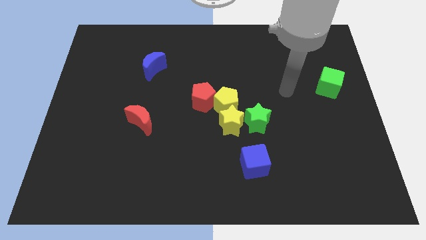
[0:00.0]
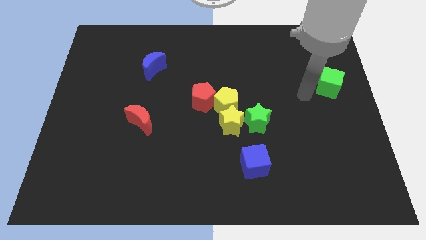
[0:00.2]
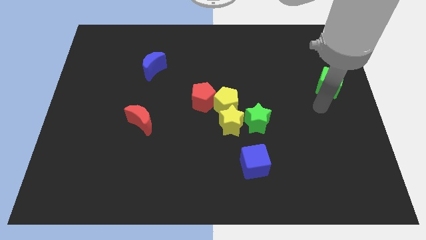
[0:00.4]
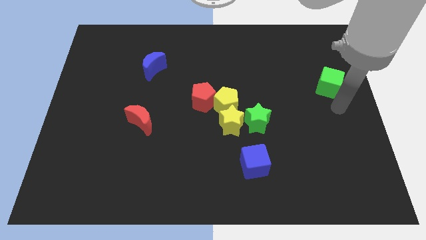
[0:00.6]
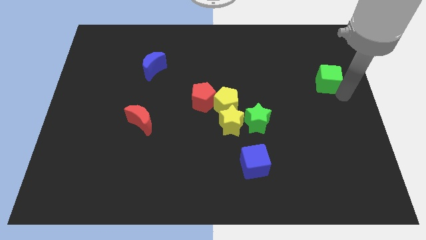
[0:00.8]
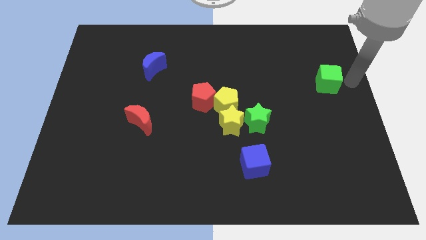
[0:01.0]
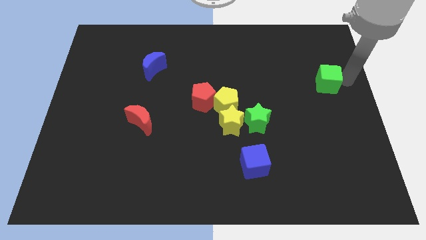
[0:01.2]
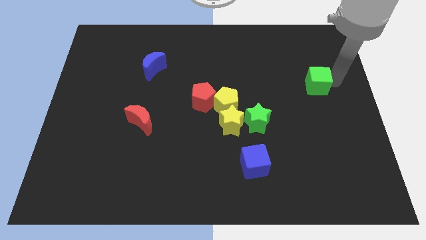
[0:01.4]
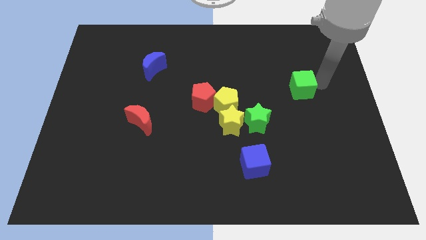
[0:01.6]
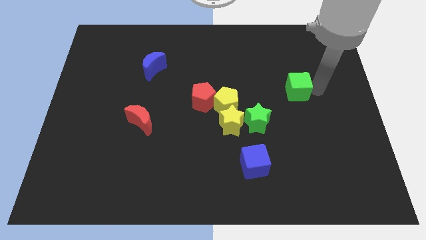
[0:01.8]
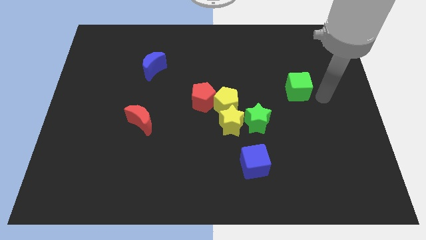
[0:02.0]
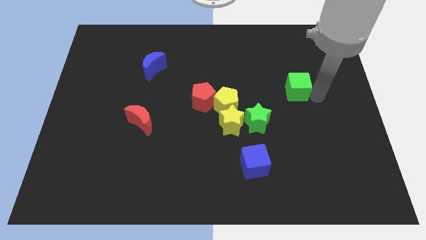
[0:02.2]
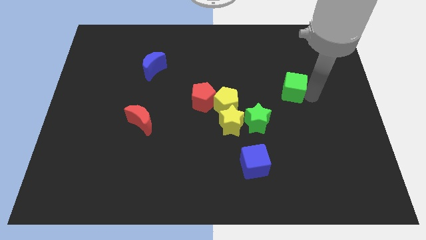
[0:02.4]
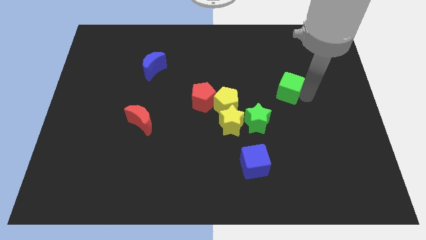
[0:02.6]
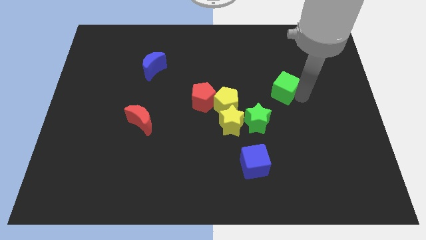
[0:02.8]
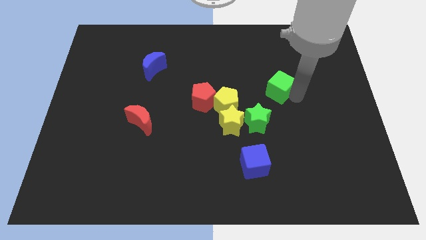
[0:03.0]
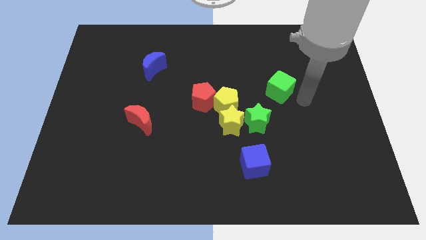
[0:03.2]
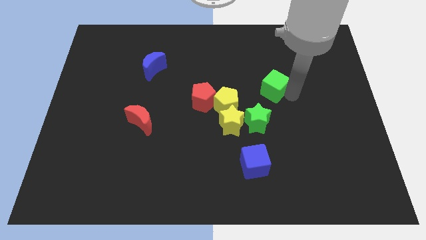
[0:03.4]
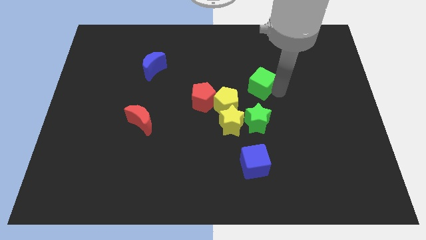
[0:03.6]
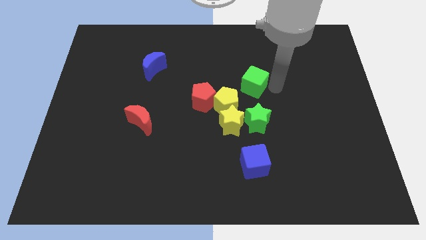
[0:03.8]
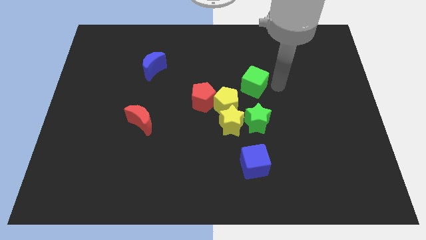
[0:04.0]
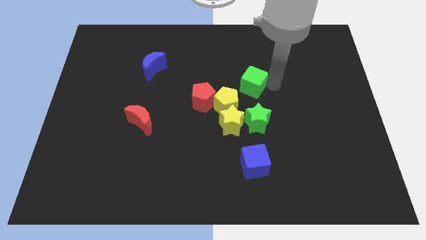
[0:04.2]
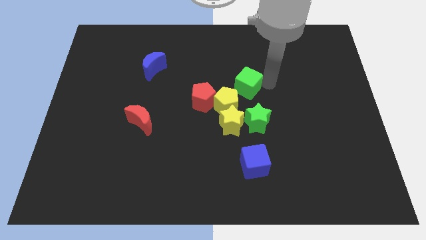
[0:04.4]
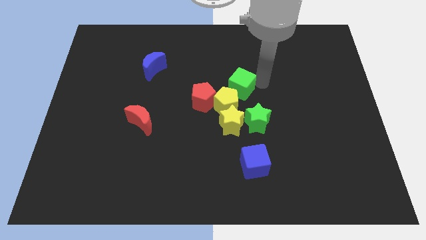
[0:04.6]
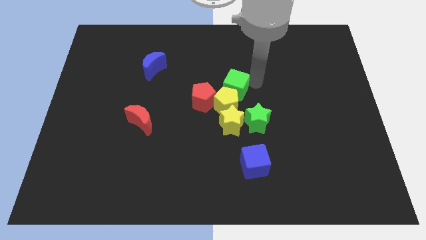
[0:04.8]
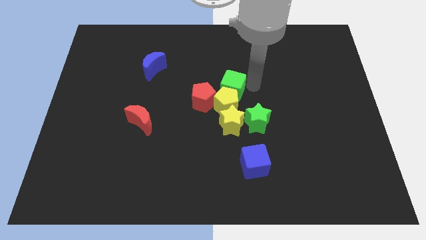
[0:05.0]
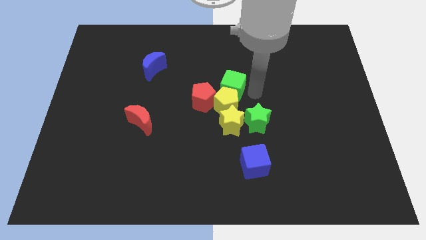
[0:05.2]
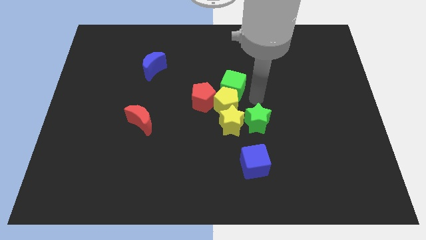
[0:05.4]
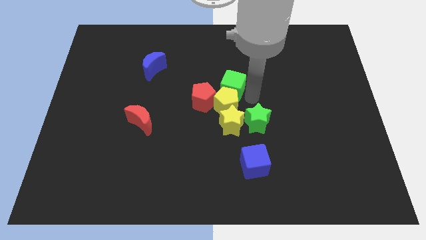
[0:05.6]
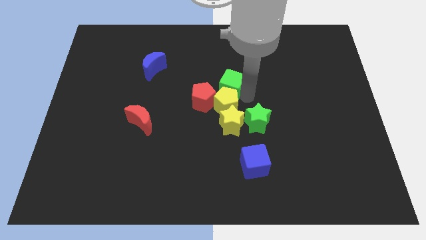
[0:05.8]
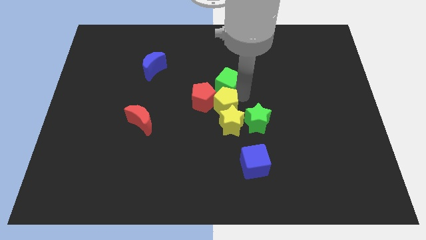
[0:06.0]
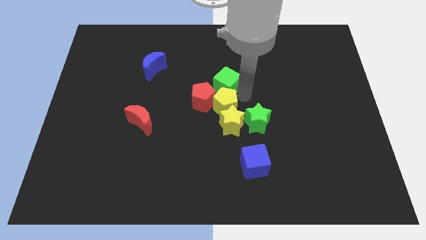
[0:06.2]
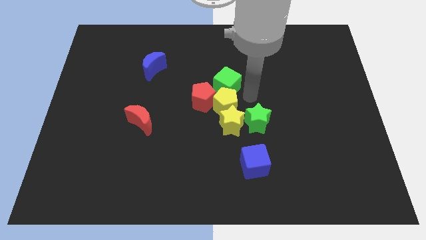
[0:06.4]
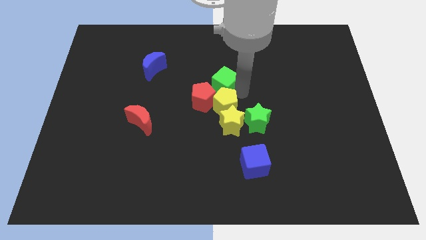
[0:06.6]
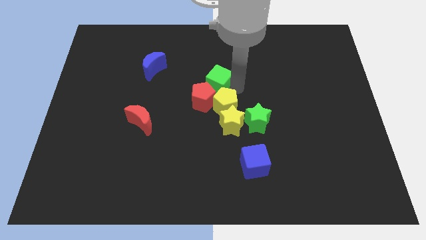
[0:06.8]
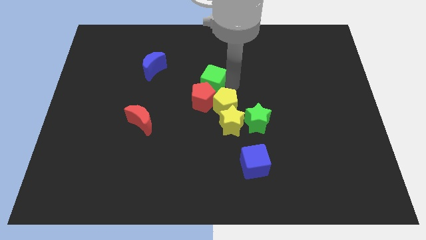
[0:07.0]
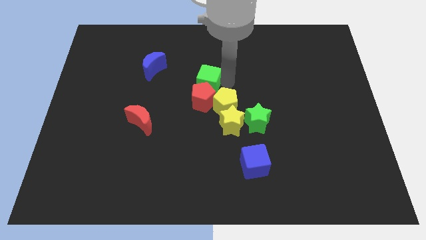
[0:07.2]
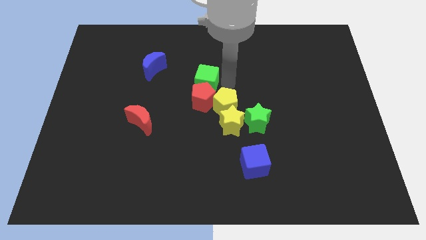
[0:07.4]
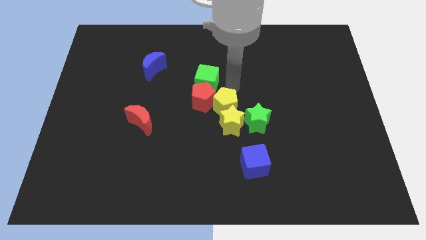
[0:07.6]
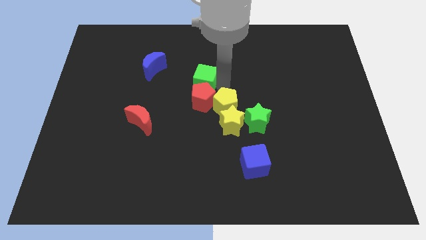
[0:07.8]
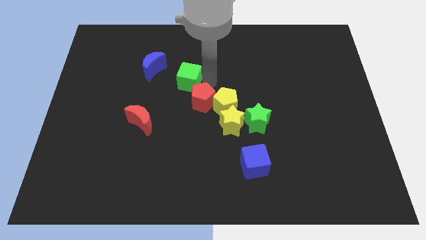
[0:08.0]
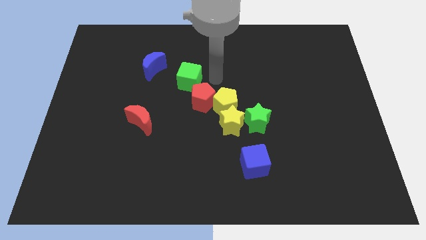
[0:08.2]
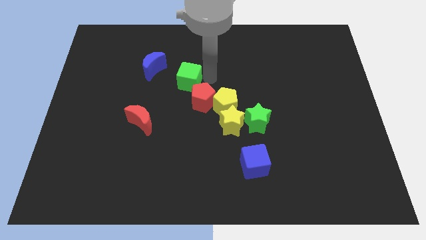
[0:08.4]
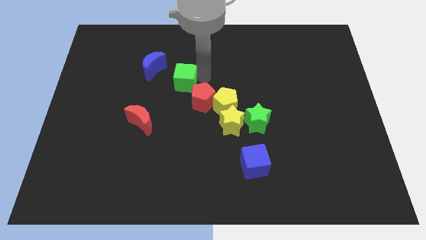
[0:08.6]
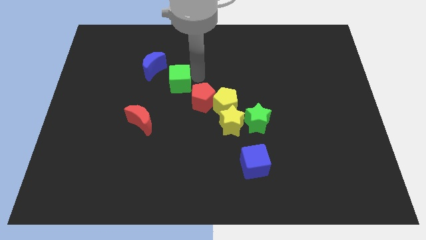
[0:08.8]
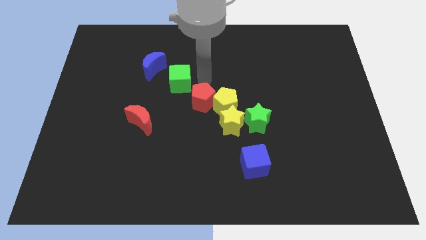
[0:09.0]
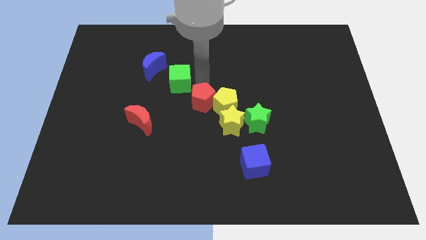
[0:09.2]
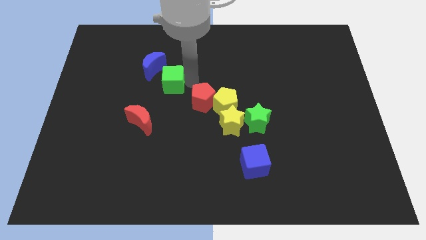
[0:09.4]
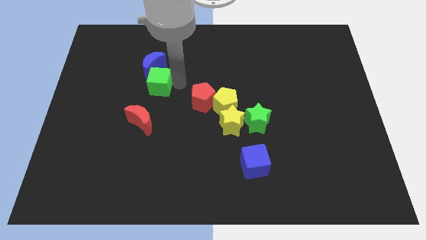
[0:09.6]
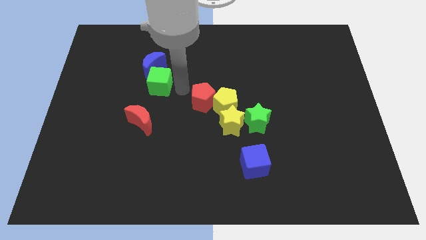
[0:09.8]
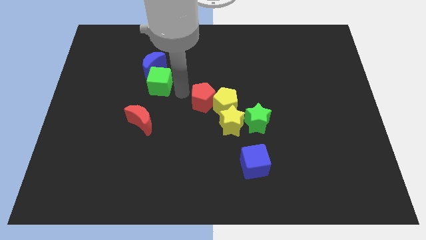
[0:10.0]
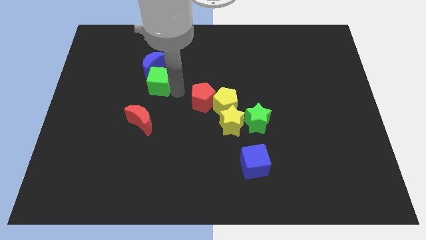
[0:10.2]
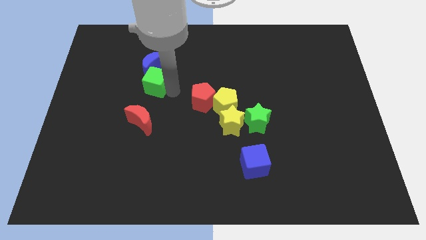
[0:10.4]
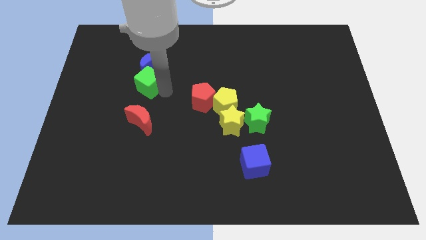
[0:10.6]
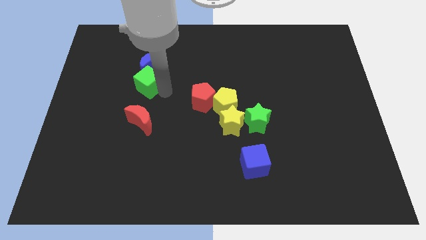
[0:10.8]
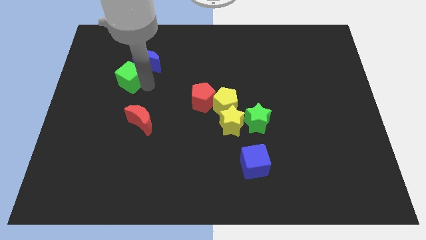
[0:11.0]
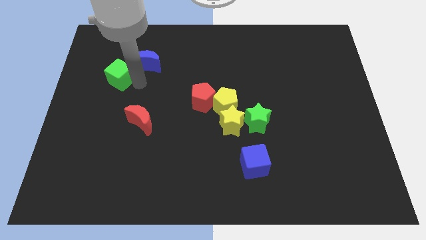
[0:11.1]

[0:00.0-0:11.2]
move the green cube just left of the blue moon

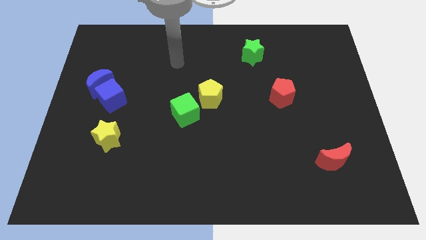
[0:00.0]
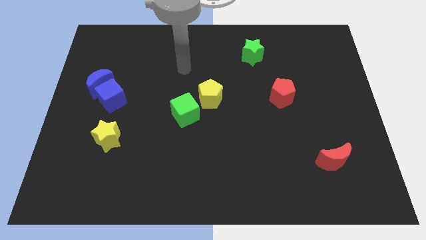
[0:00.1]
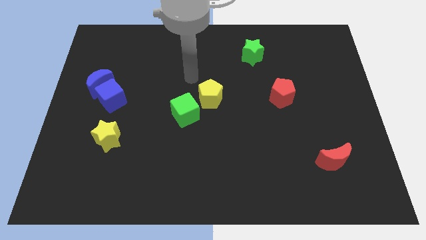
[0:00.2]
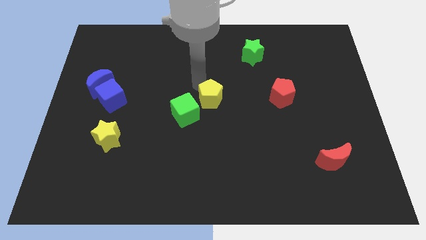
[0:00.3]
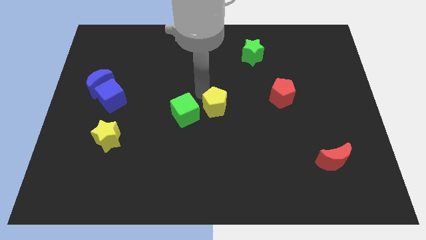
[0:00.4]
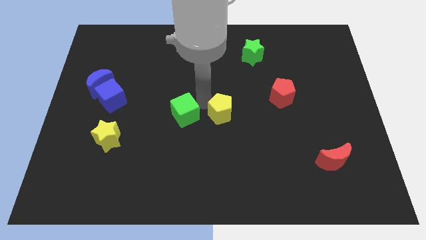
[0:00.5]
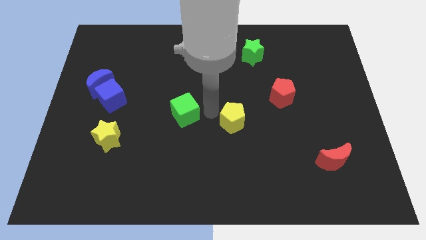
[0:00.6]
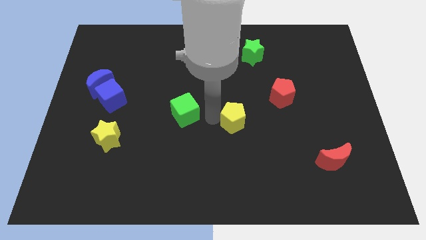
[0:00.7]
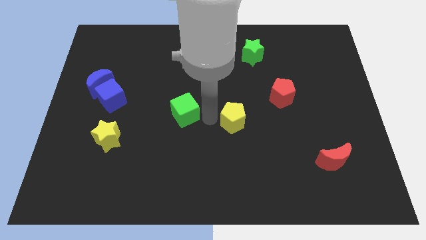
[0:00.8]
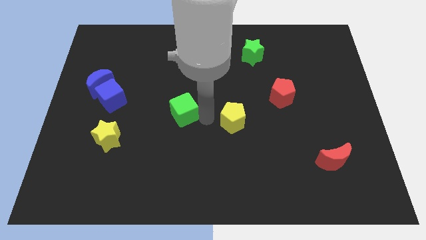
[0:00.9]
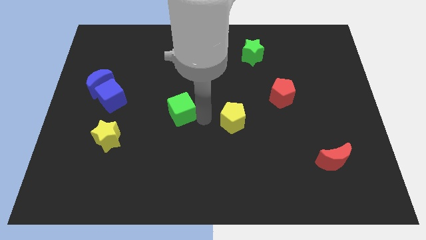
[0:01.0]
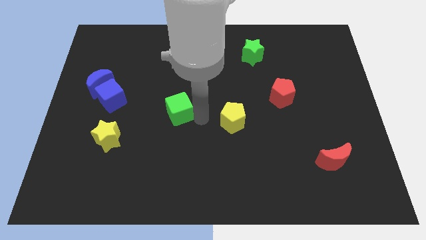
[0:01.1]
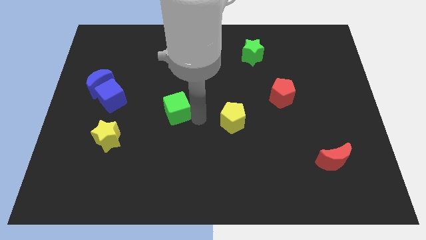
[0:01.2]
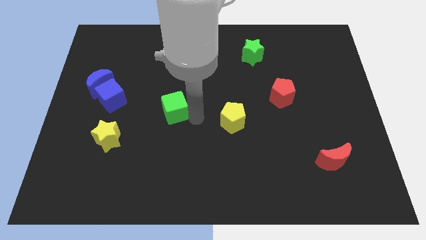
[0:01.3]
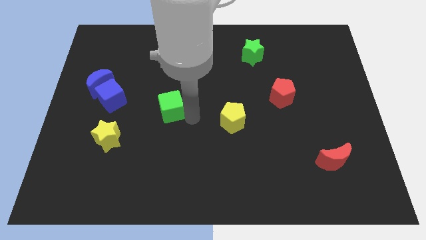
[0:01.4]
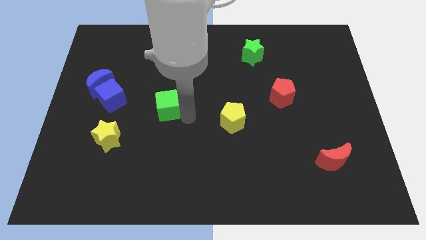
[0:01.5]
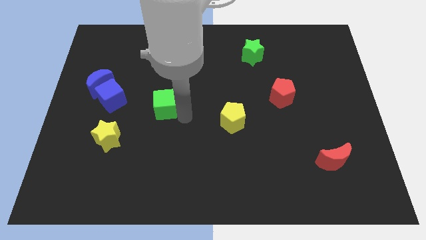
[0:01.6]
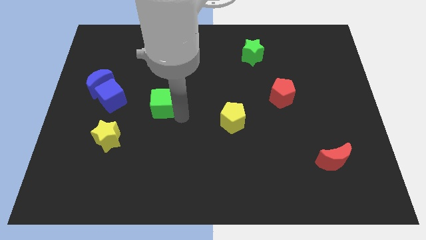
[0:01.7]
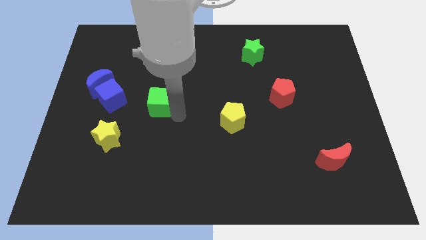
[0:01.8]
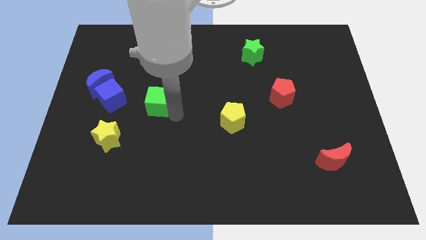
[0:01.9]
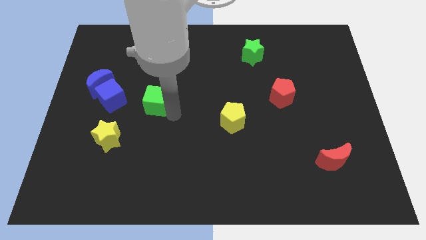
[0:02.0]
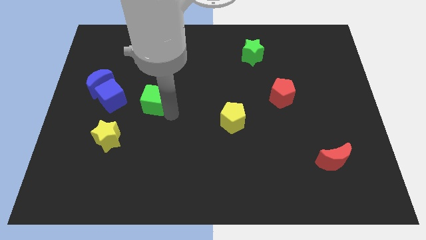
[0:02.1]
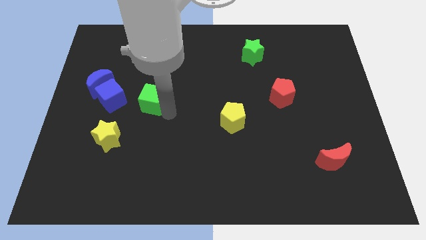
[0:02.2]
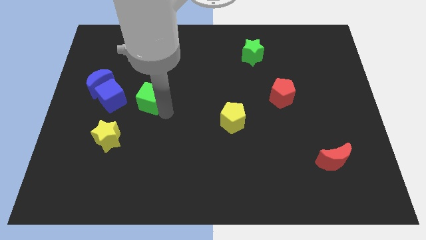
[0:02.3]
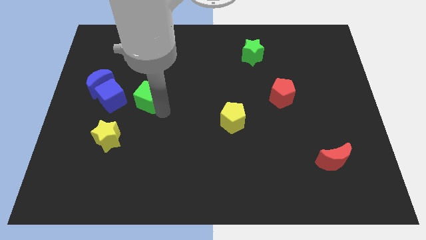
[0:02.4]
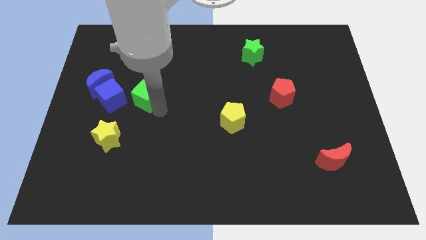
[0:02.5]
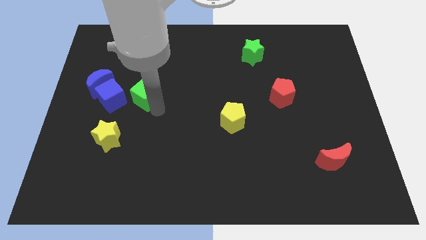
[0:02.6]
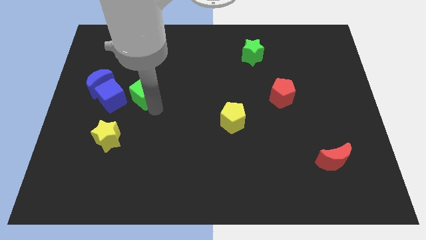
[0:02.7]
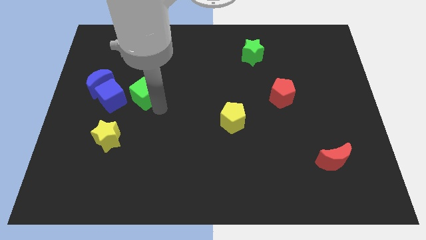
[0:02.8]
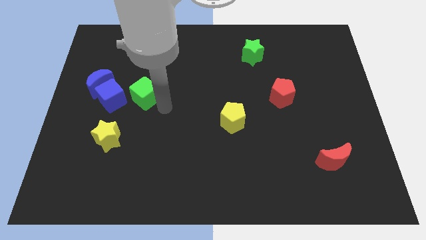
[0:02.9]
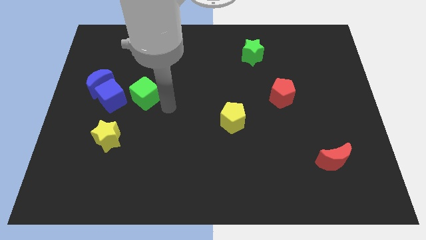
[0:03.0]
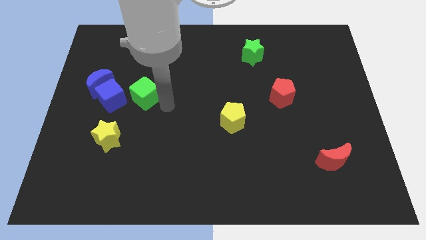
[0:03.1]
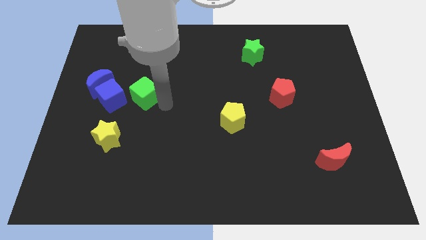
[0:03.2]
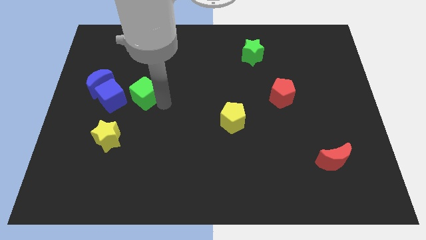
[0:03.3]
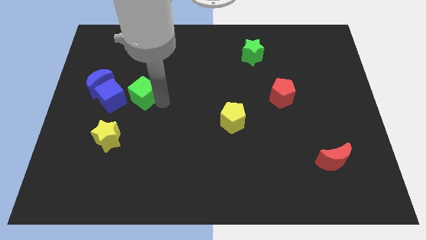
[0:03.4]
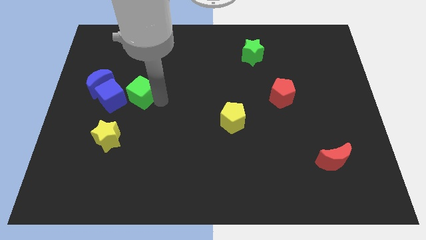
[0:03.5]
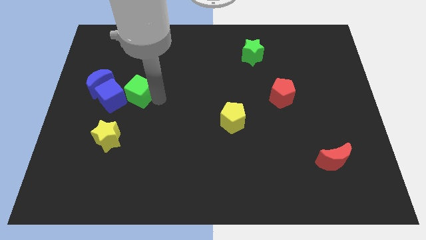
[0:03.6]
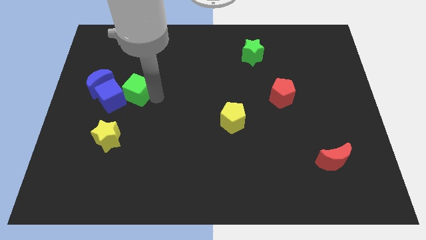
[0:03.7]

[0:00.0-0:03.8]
put the green cube above the yellow star
